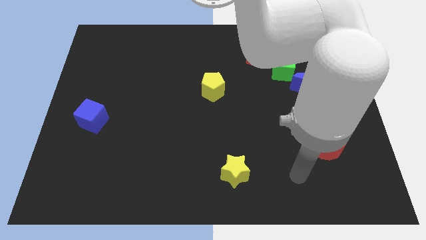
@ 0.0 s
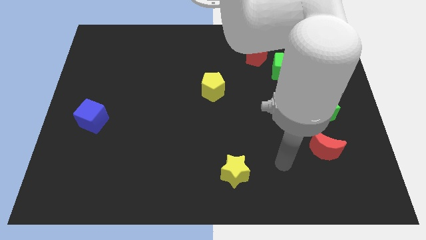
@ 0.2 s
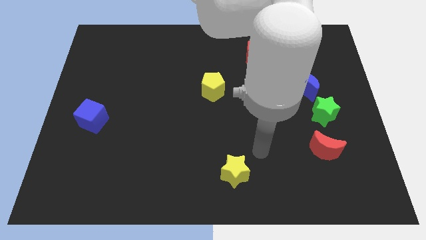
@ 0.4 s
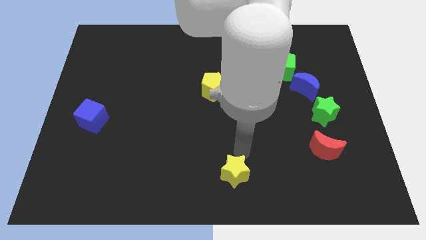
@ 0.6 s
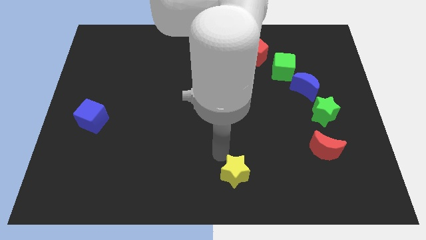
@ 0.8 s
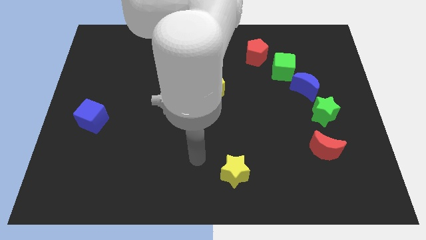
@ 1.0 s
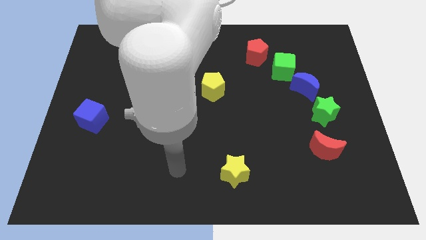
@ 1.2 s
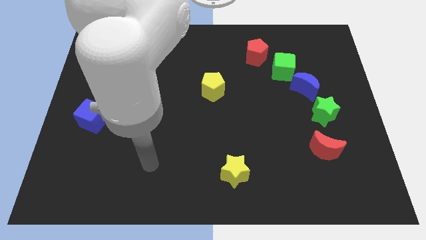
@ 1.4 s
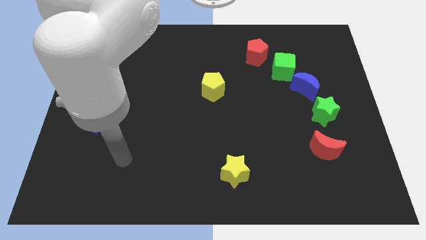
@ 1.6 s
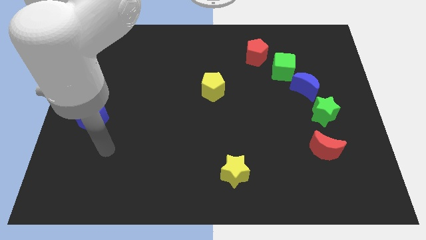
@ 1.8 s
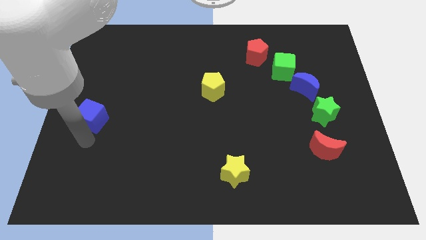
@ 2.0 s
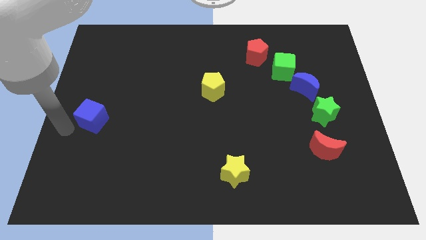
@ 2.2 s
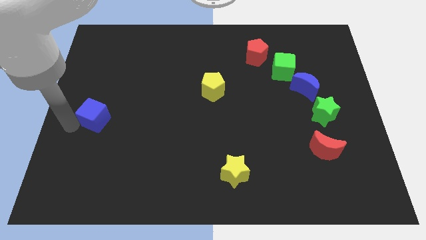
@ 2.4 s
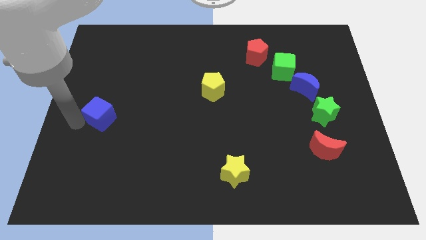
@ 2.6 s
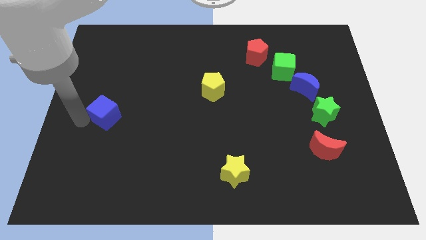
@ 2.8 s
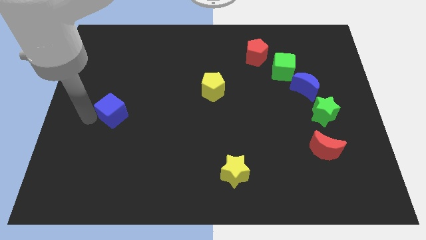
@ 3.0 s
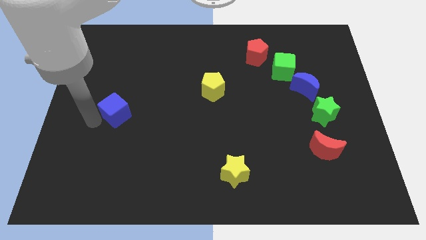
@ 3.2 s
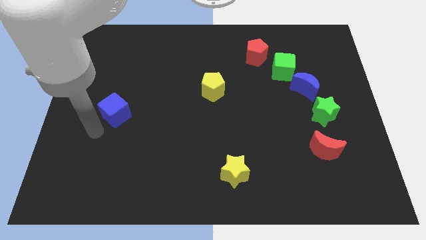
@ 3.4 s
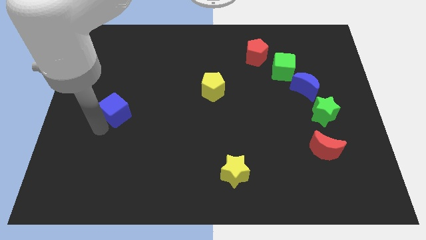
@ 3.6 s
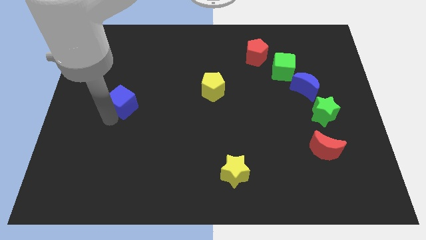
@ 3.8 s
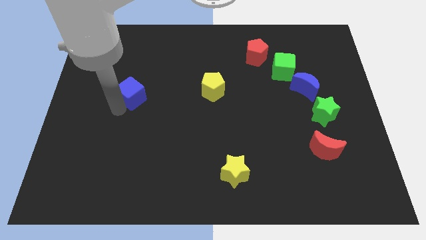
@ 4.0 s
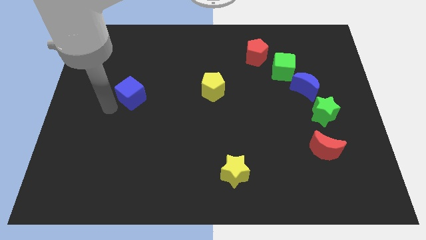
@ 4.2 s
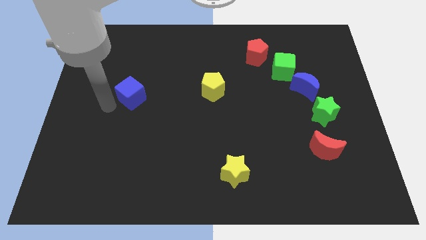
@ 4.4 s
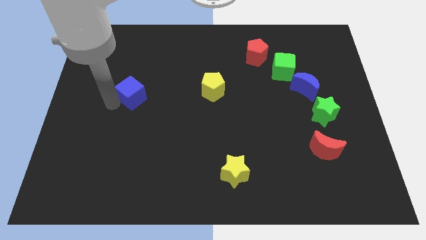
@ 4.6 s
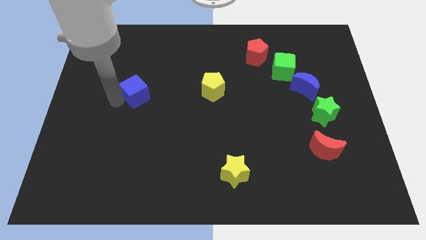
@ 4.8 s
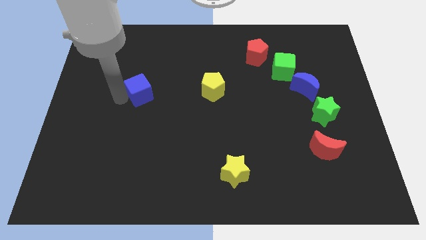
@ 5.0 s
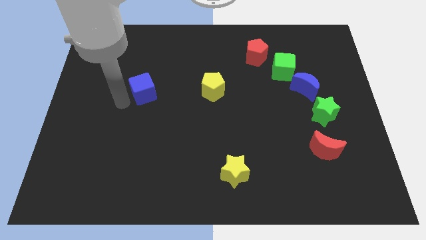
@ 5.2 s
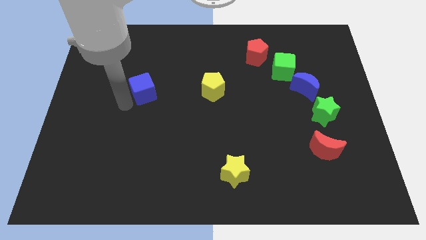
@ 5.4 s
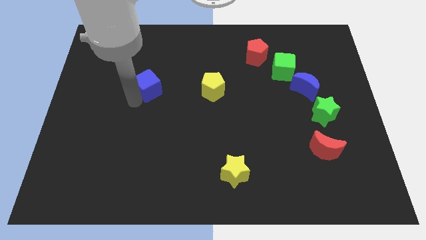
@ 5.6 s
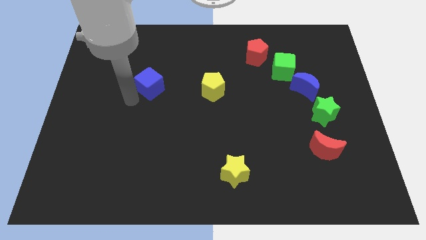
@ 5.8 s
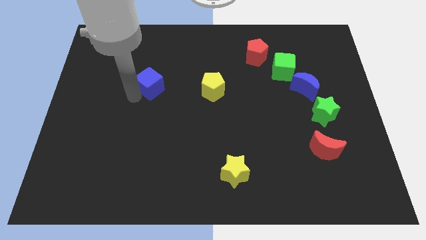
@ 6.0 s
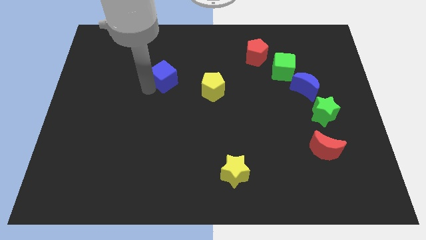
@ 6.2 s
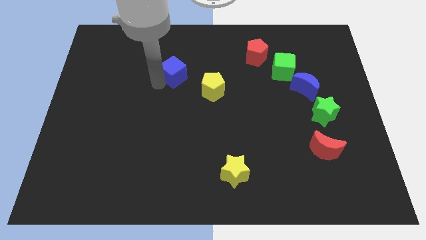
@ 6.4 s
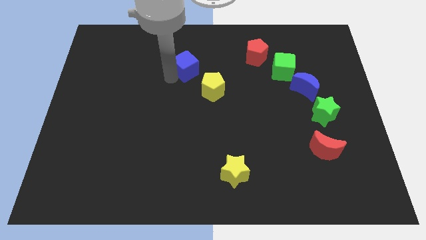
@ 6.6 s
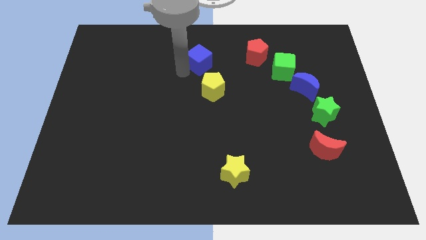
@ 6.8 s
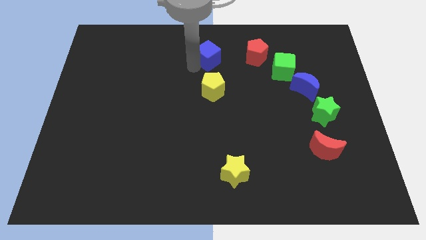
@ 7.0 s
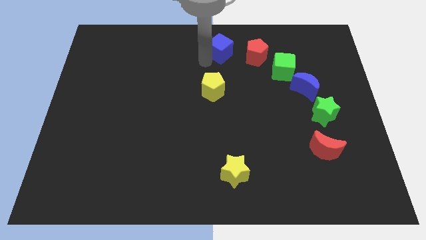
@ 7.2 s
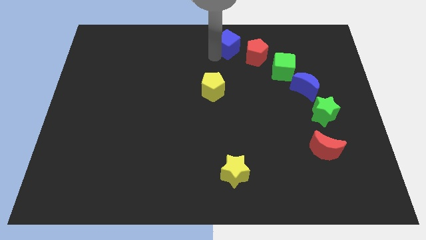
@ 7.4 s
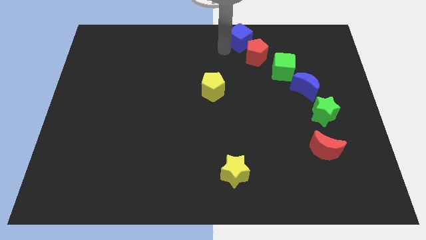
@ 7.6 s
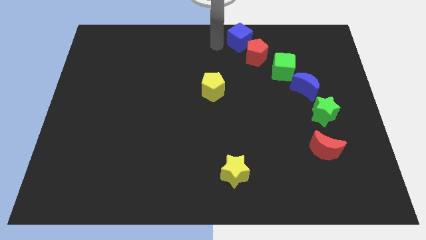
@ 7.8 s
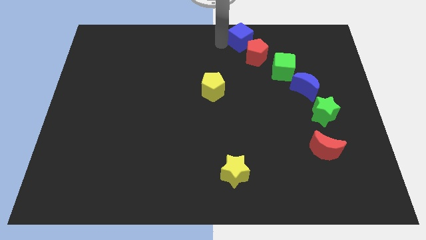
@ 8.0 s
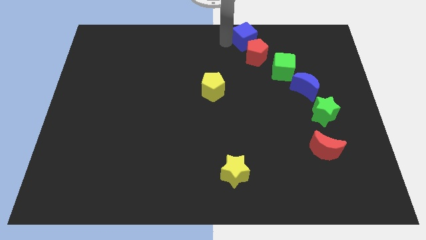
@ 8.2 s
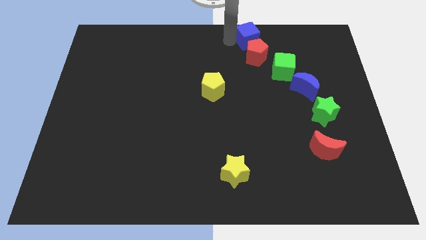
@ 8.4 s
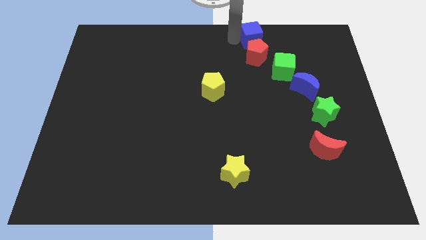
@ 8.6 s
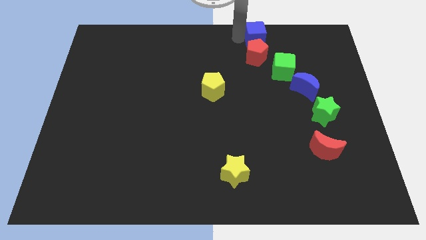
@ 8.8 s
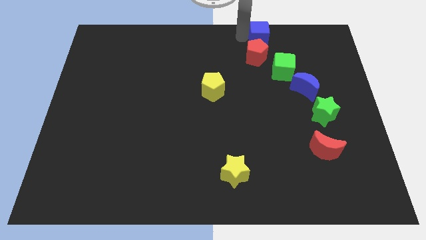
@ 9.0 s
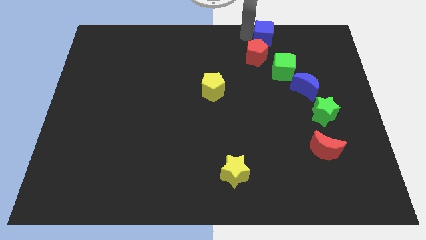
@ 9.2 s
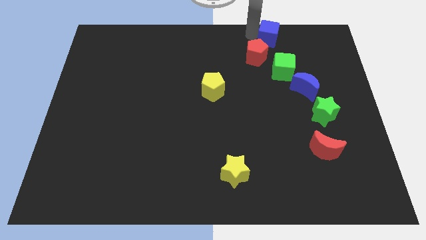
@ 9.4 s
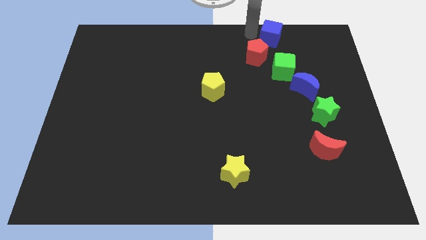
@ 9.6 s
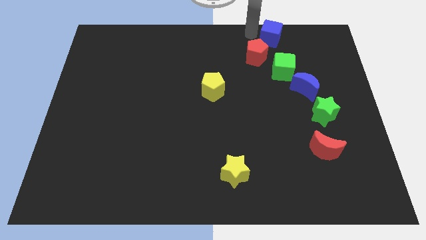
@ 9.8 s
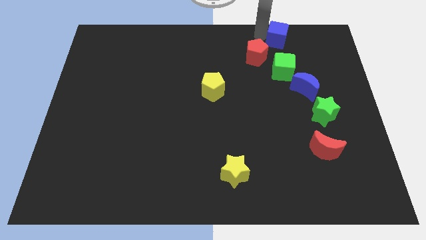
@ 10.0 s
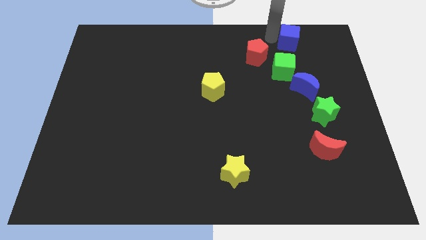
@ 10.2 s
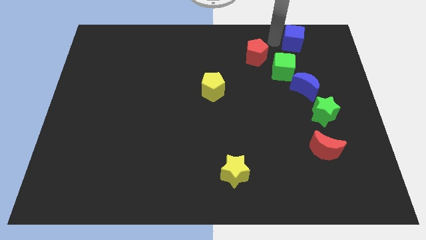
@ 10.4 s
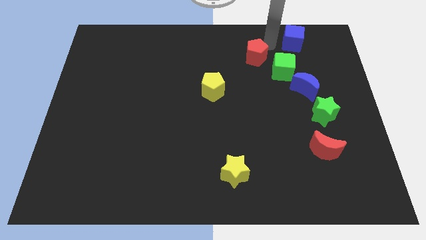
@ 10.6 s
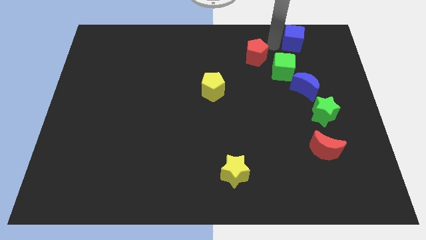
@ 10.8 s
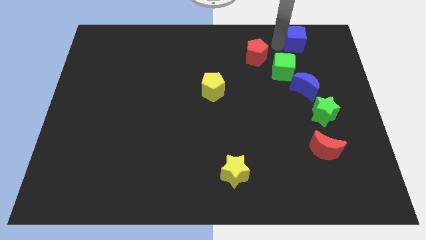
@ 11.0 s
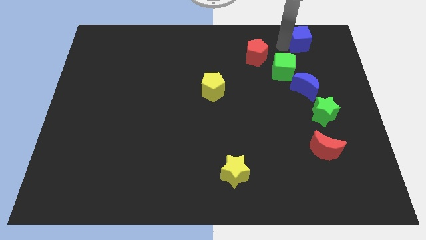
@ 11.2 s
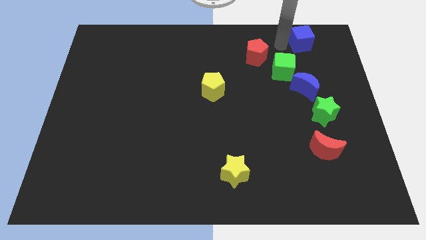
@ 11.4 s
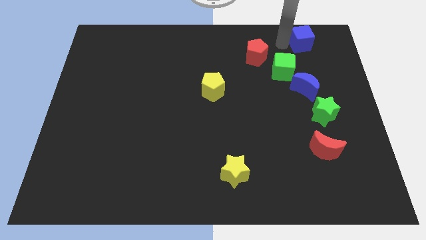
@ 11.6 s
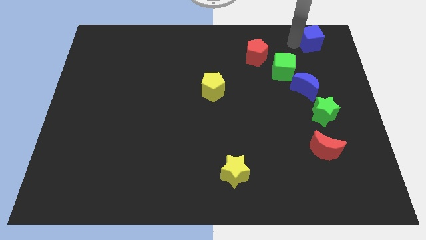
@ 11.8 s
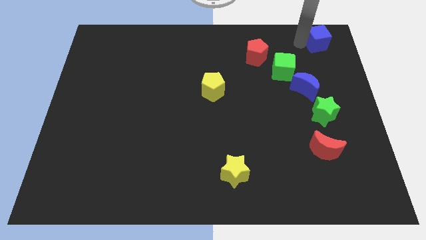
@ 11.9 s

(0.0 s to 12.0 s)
put the blue cube to the top right of the board

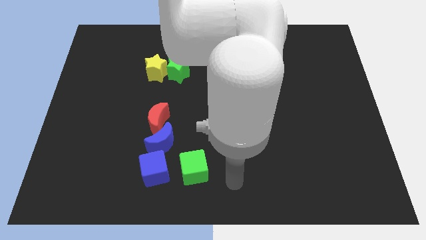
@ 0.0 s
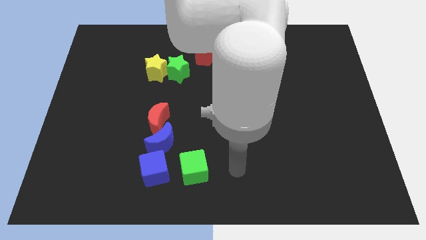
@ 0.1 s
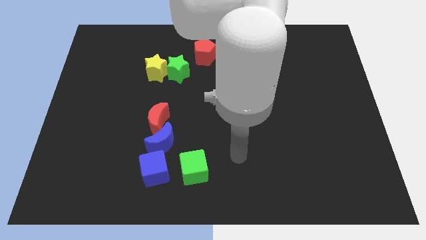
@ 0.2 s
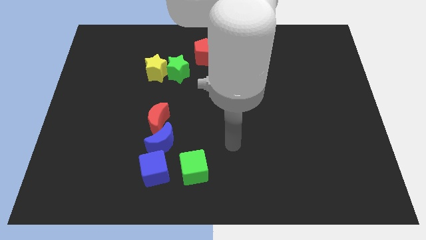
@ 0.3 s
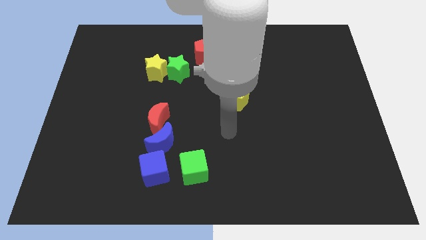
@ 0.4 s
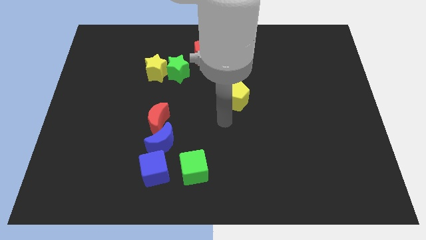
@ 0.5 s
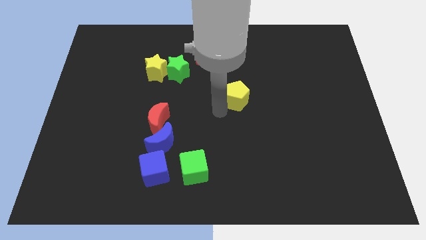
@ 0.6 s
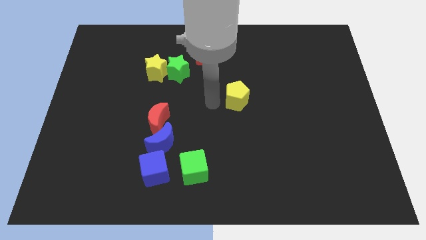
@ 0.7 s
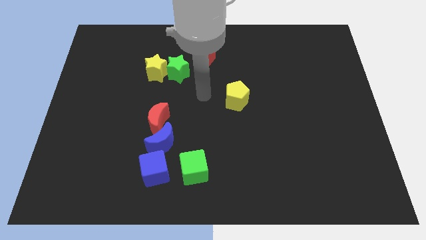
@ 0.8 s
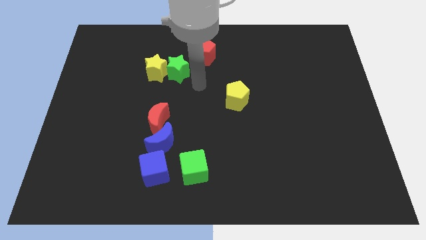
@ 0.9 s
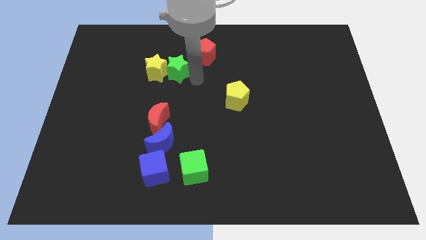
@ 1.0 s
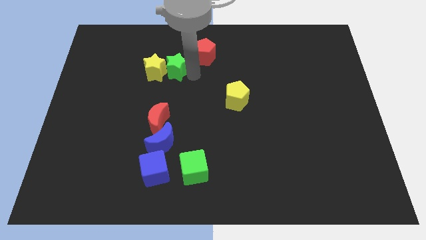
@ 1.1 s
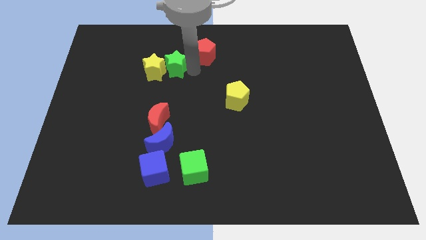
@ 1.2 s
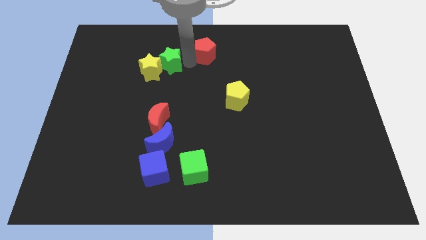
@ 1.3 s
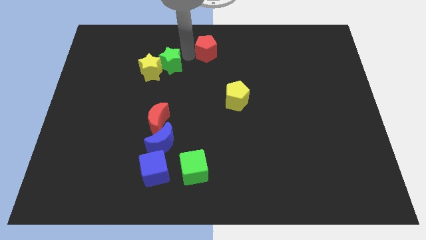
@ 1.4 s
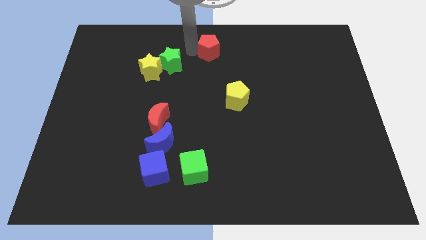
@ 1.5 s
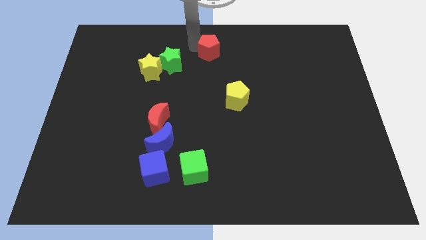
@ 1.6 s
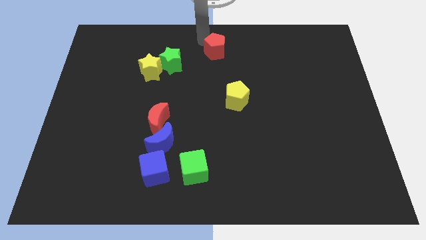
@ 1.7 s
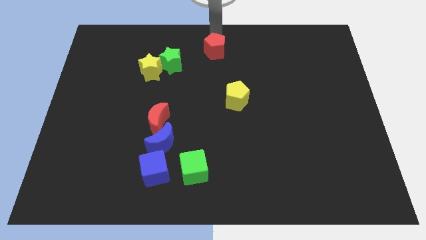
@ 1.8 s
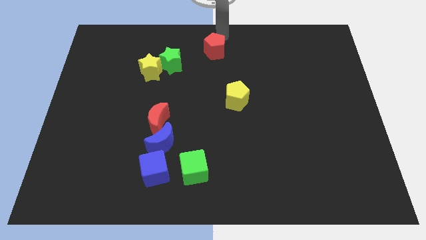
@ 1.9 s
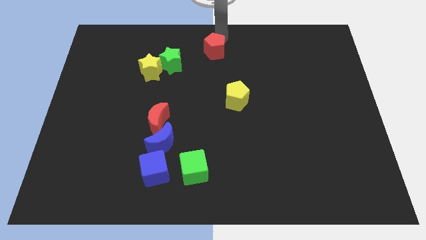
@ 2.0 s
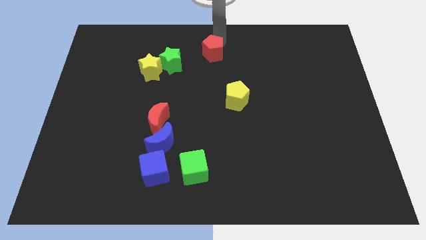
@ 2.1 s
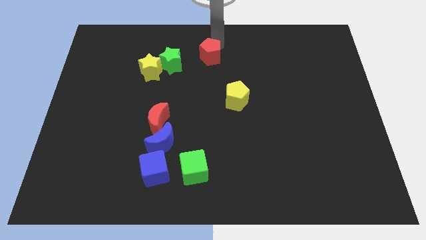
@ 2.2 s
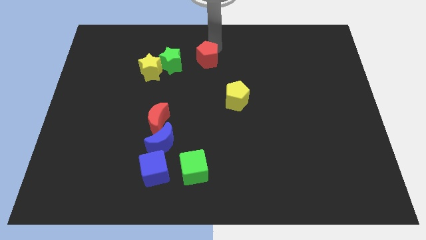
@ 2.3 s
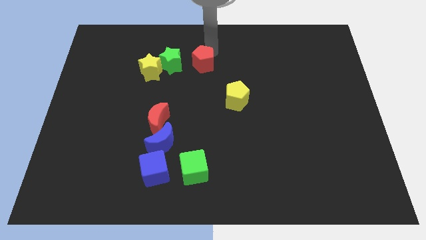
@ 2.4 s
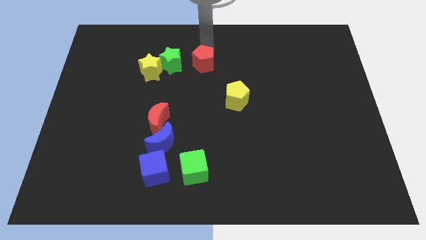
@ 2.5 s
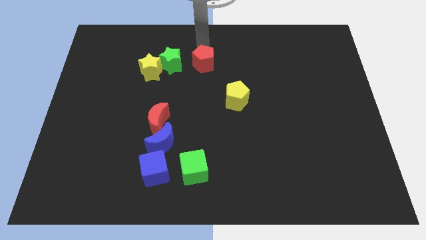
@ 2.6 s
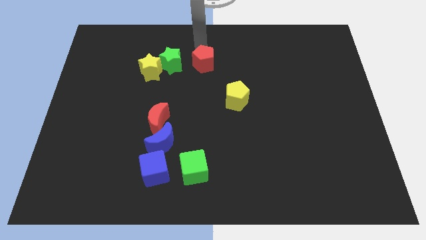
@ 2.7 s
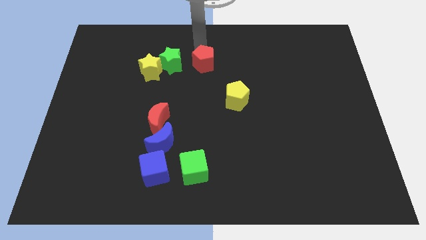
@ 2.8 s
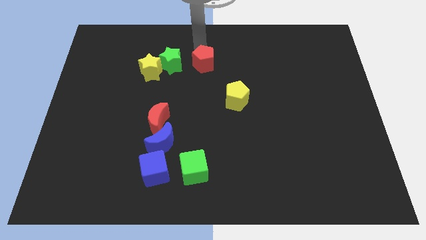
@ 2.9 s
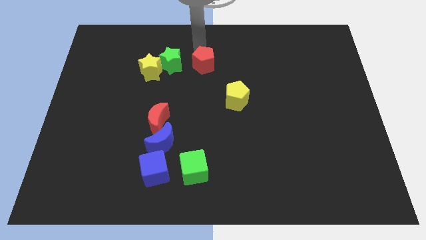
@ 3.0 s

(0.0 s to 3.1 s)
push the red pentagon to the center
